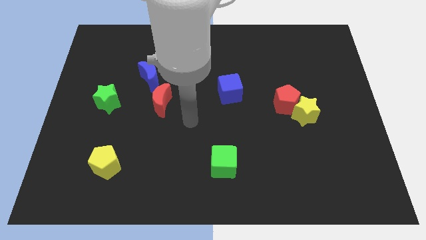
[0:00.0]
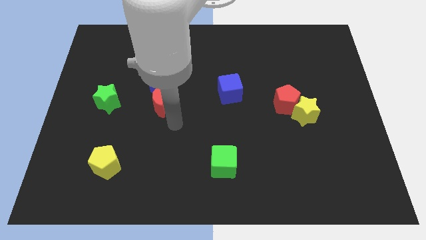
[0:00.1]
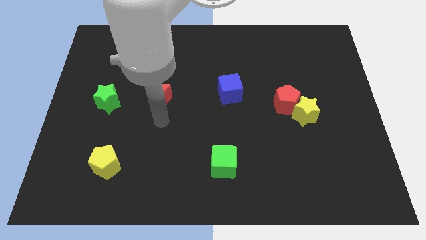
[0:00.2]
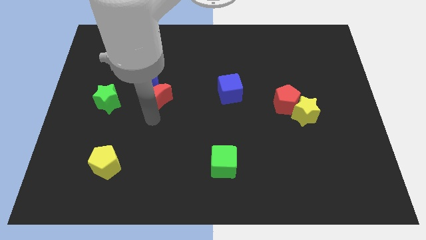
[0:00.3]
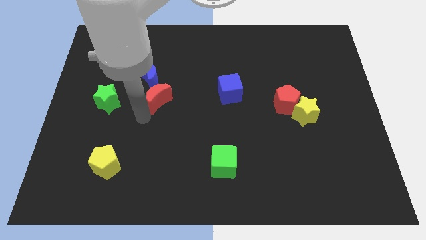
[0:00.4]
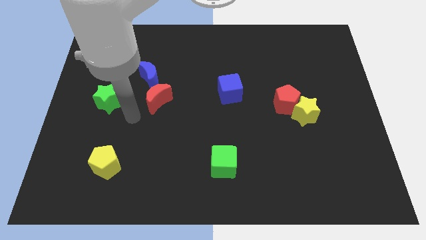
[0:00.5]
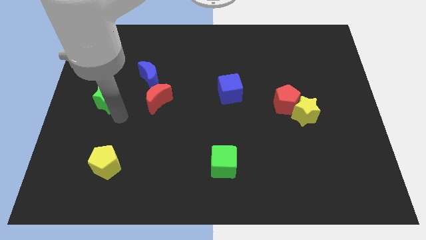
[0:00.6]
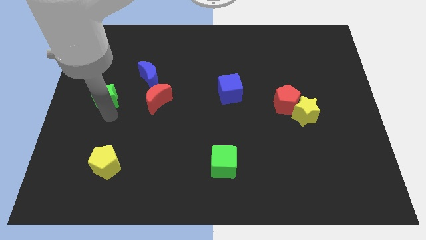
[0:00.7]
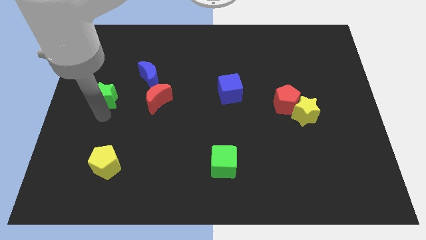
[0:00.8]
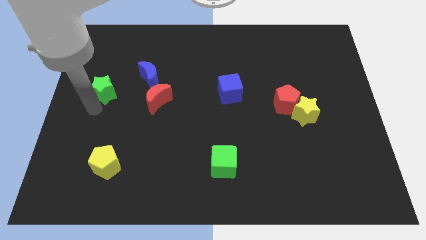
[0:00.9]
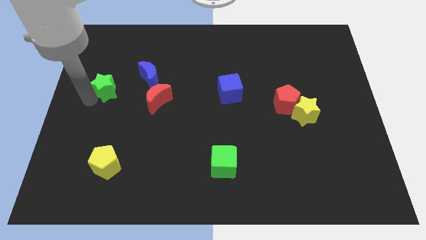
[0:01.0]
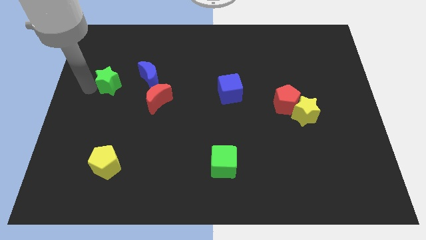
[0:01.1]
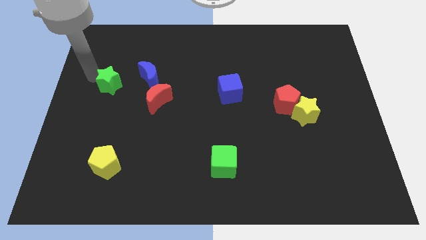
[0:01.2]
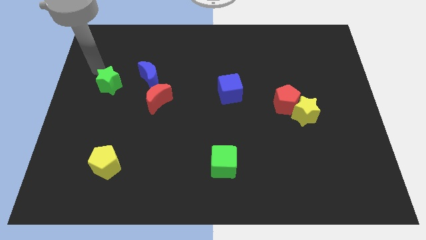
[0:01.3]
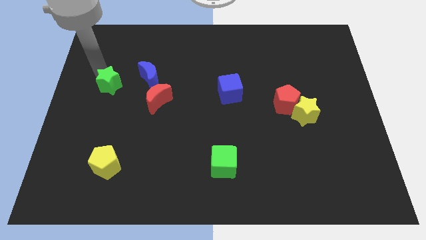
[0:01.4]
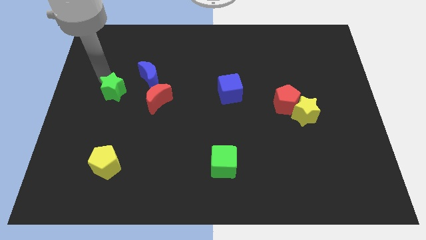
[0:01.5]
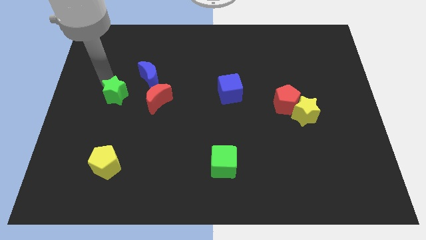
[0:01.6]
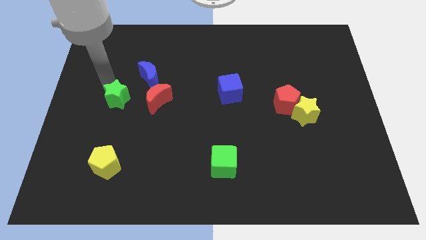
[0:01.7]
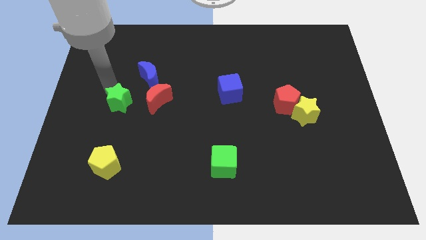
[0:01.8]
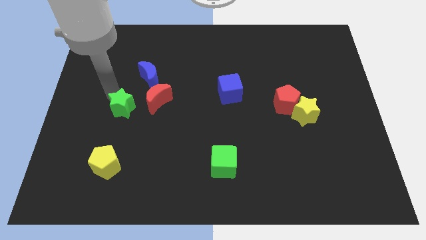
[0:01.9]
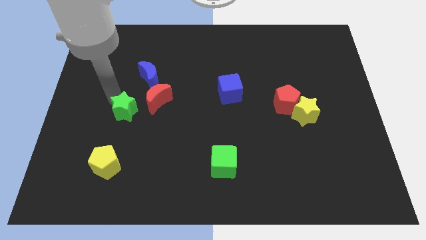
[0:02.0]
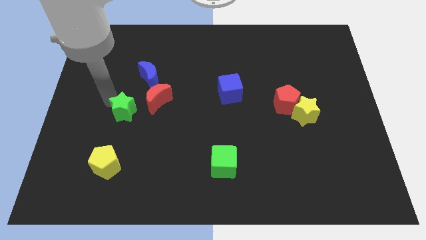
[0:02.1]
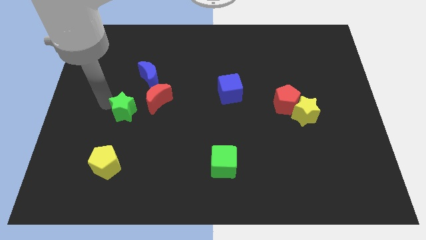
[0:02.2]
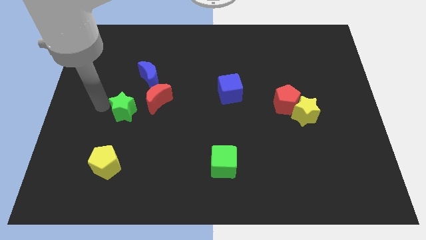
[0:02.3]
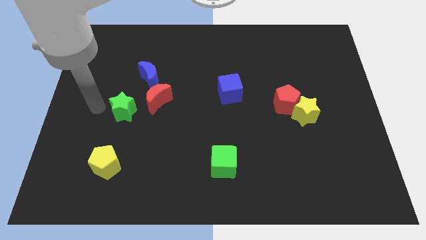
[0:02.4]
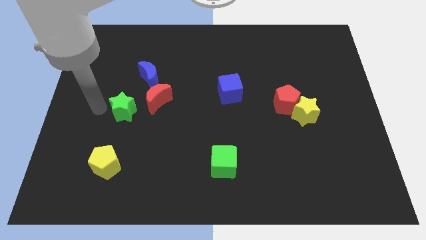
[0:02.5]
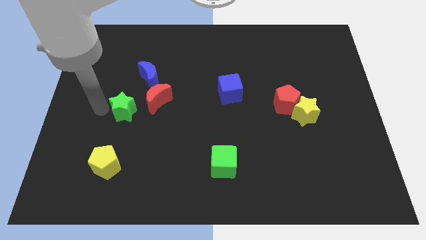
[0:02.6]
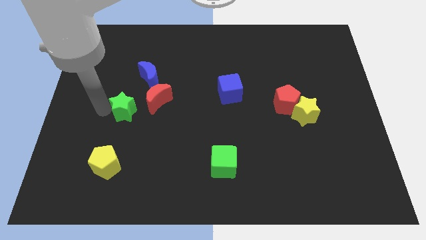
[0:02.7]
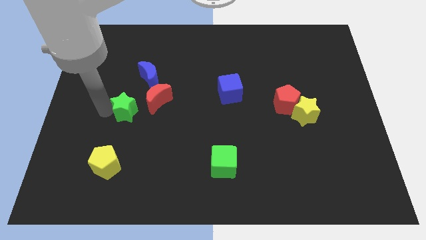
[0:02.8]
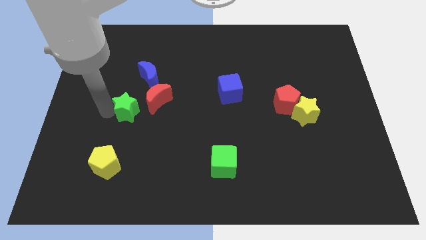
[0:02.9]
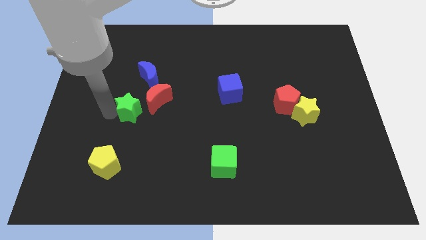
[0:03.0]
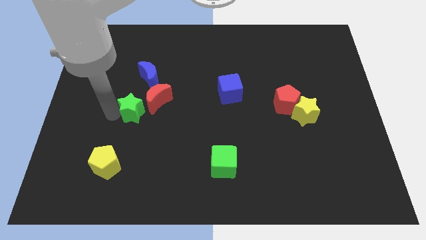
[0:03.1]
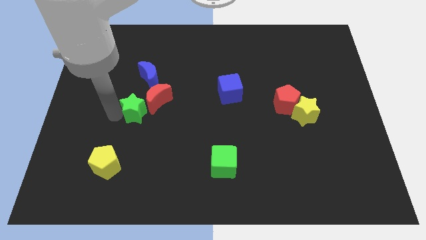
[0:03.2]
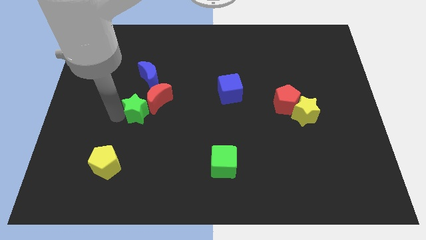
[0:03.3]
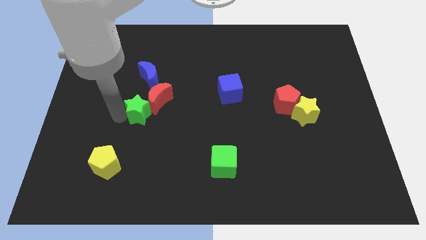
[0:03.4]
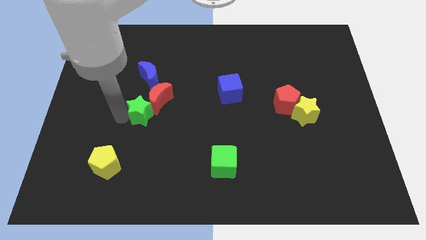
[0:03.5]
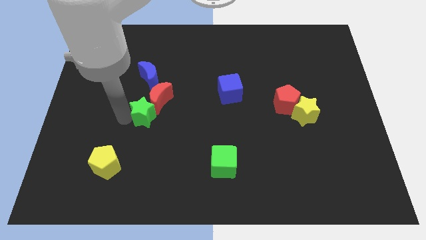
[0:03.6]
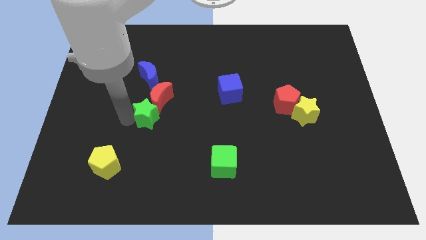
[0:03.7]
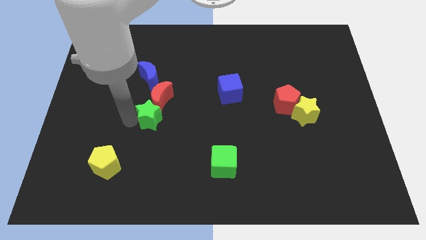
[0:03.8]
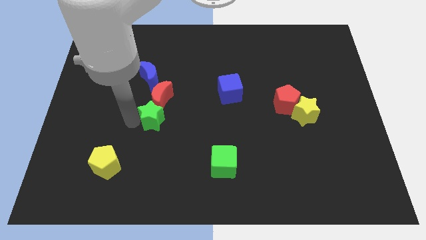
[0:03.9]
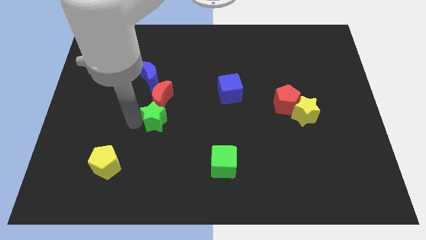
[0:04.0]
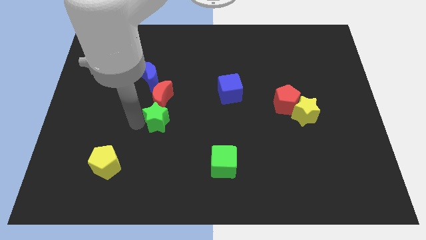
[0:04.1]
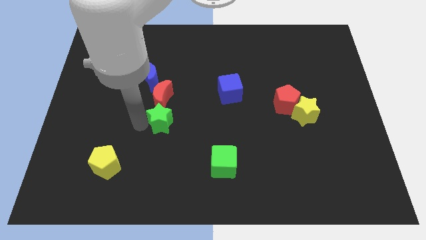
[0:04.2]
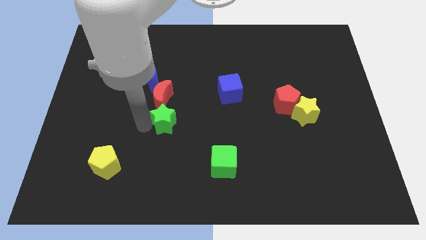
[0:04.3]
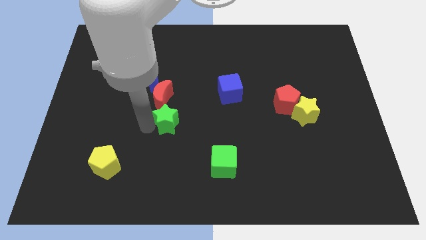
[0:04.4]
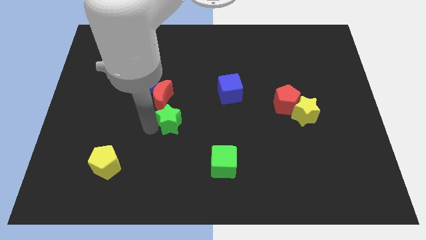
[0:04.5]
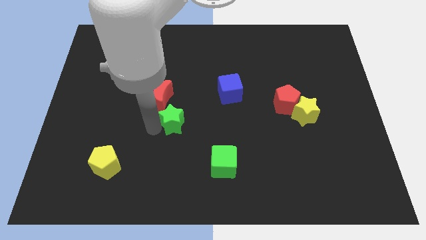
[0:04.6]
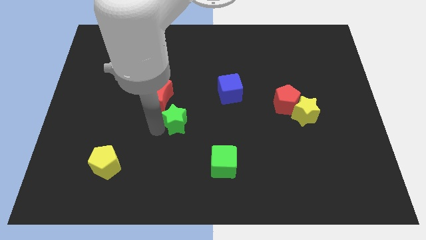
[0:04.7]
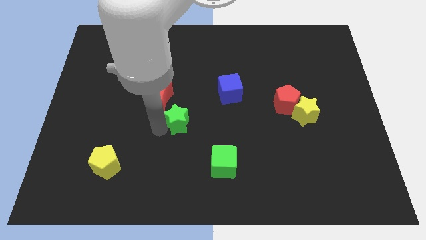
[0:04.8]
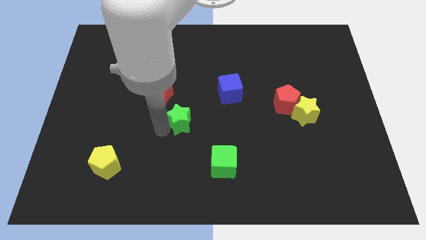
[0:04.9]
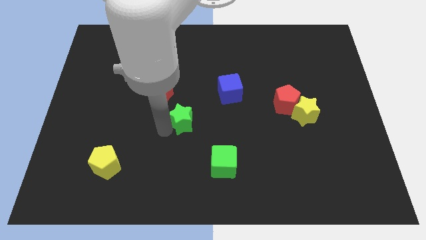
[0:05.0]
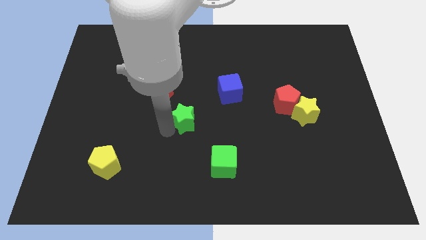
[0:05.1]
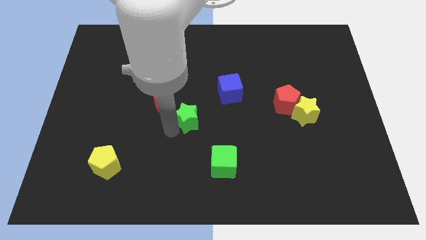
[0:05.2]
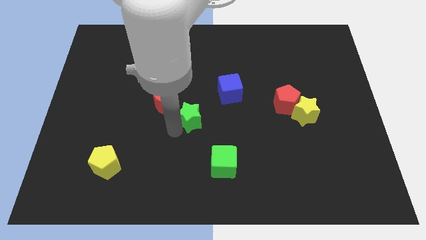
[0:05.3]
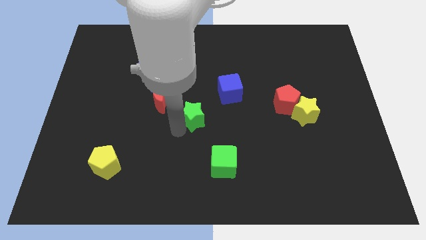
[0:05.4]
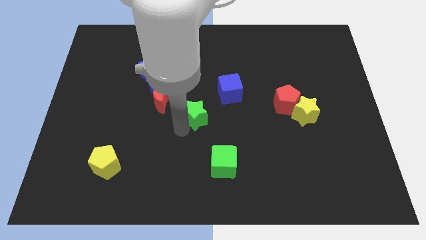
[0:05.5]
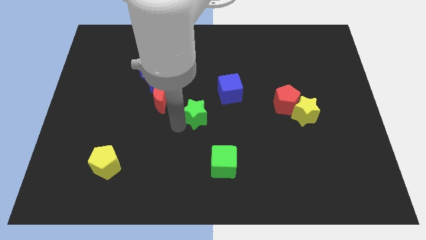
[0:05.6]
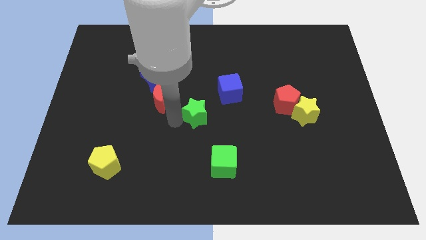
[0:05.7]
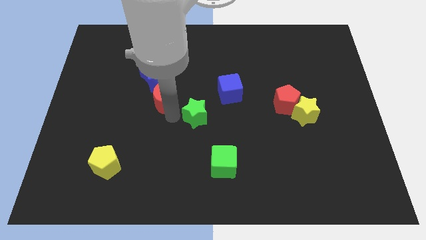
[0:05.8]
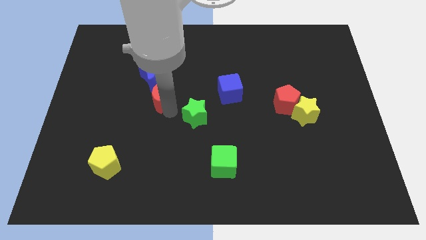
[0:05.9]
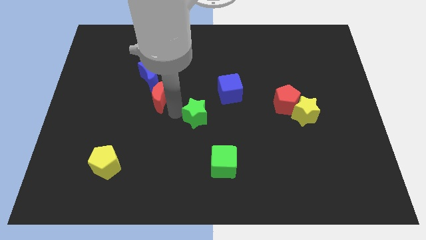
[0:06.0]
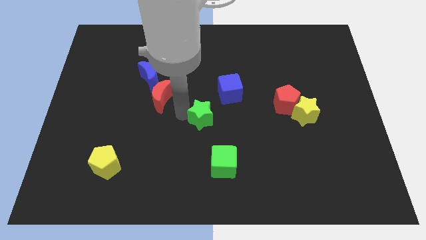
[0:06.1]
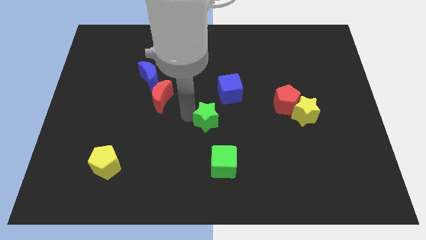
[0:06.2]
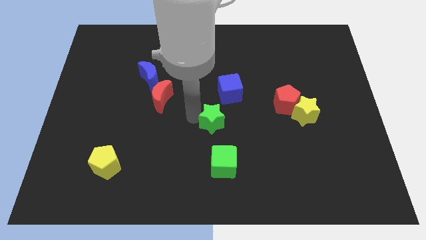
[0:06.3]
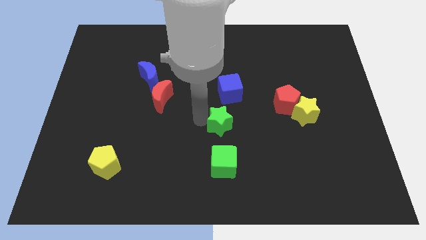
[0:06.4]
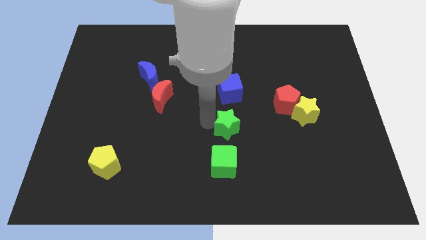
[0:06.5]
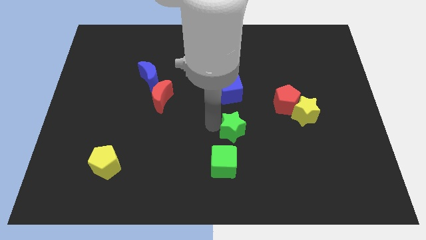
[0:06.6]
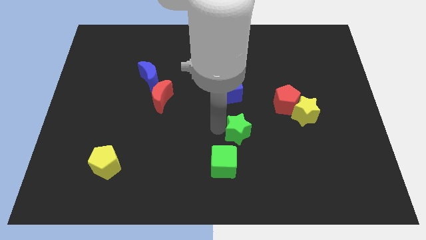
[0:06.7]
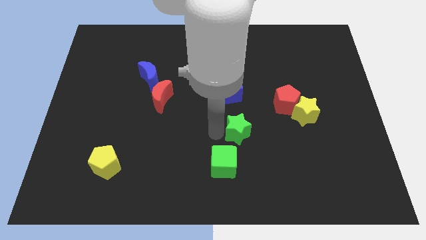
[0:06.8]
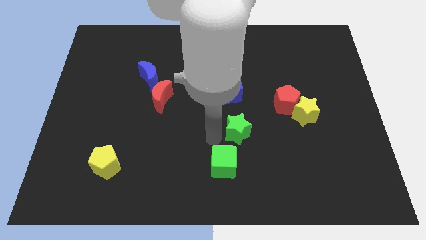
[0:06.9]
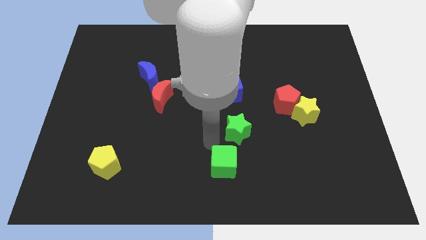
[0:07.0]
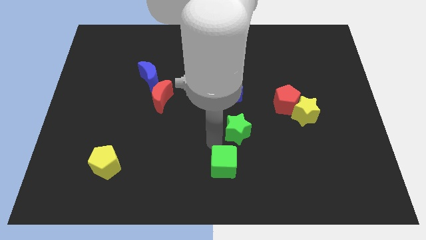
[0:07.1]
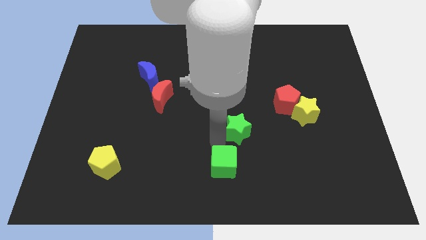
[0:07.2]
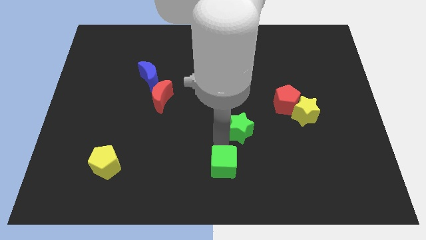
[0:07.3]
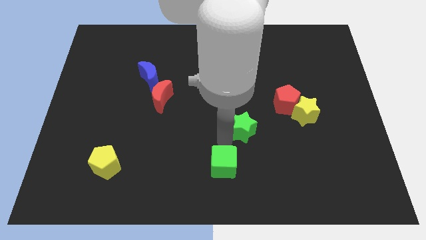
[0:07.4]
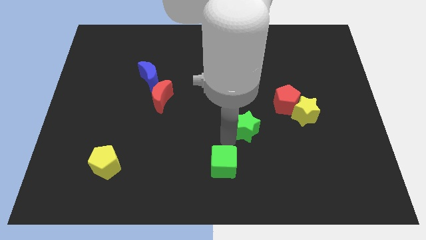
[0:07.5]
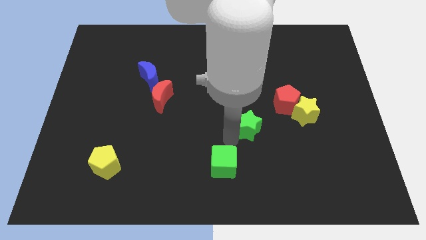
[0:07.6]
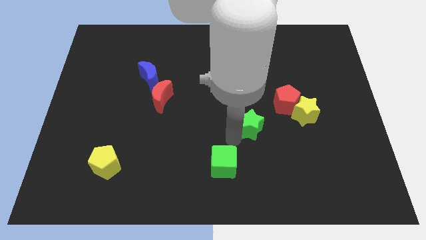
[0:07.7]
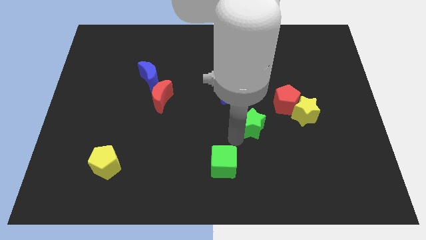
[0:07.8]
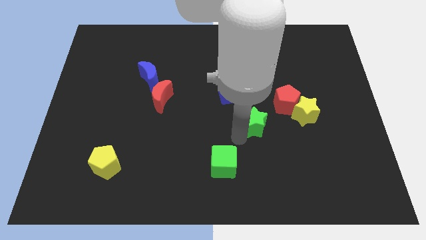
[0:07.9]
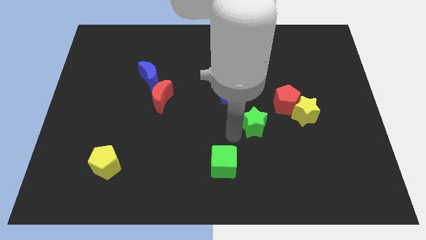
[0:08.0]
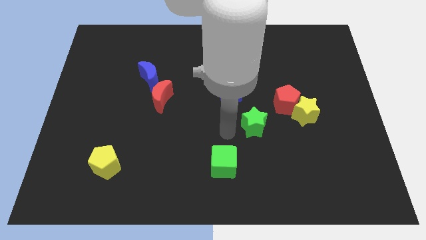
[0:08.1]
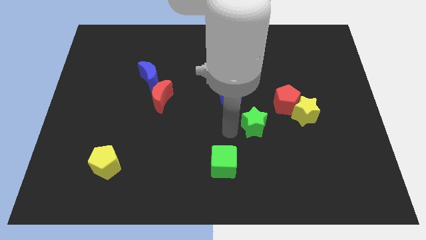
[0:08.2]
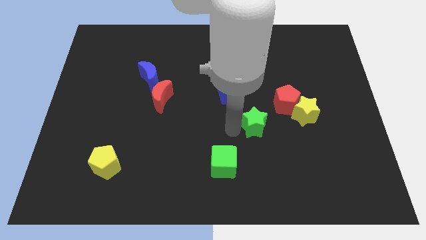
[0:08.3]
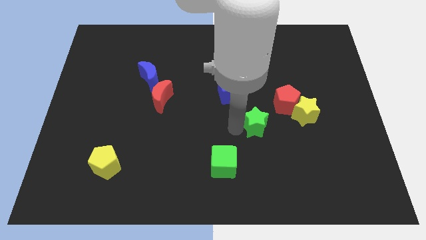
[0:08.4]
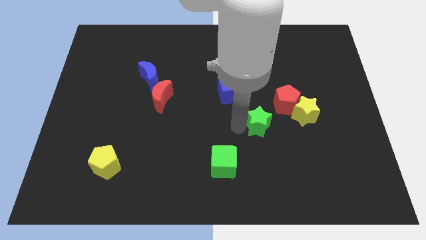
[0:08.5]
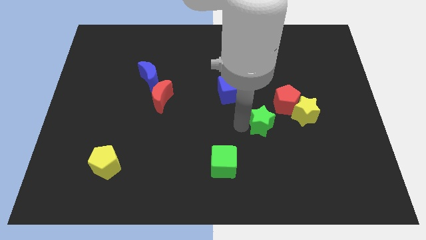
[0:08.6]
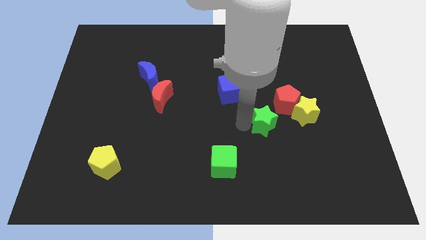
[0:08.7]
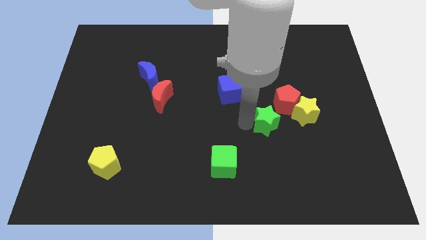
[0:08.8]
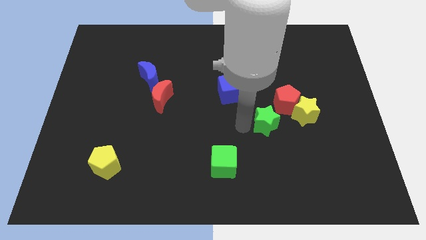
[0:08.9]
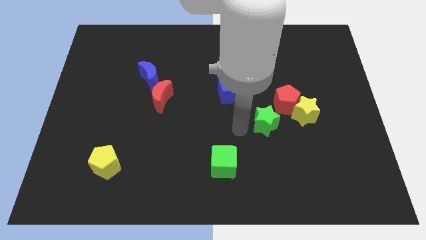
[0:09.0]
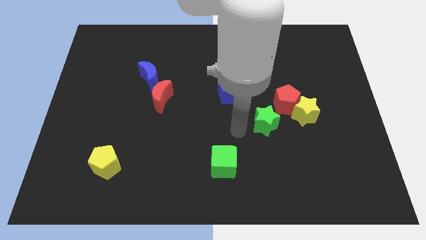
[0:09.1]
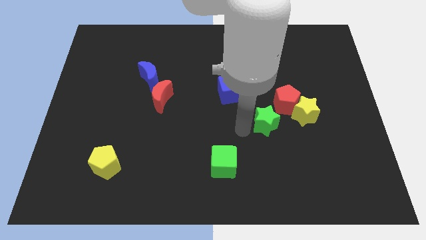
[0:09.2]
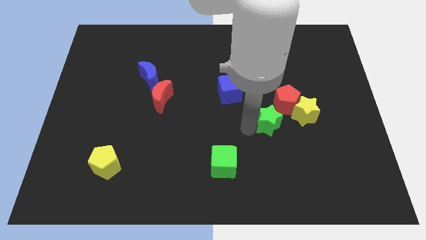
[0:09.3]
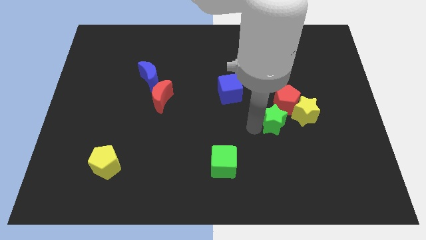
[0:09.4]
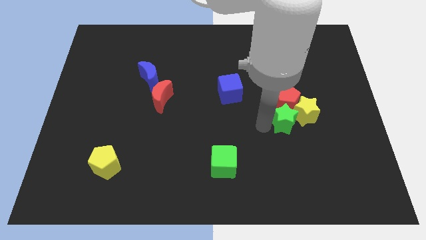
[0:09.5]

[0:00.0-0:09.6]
slide the green star close to the yellow star
